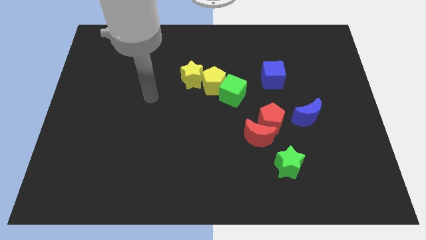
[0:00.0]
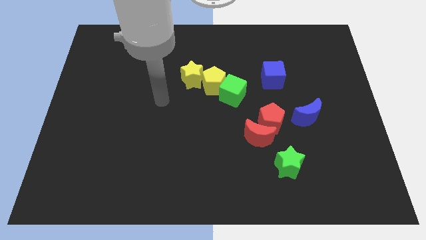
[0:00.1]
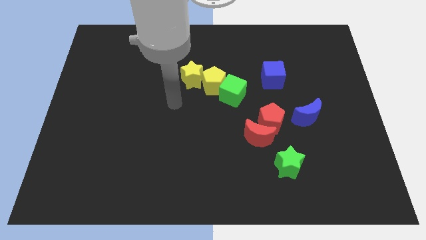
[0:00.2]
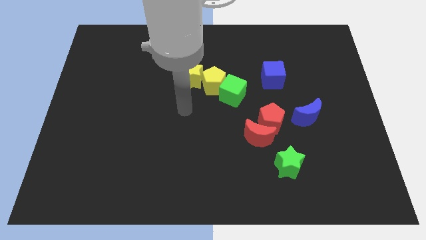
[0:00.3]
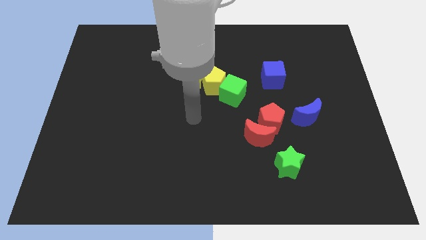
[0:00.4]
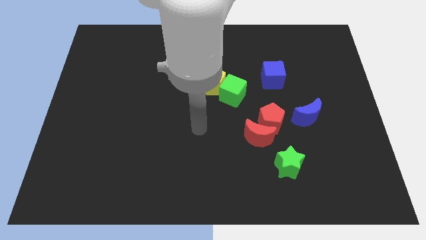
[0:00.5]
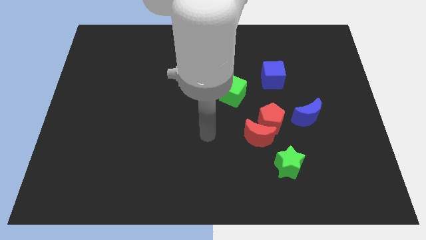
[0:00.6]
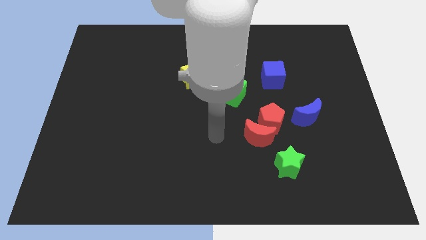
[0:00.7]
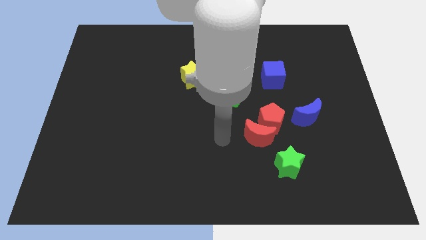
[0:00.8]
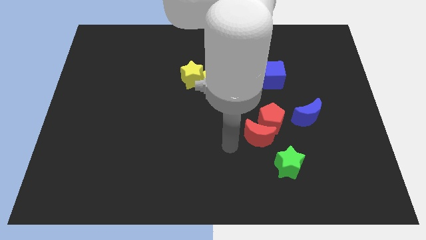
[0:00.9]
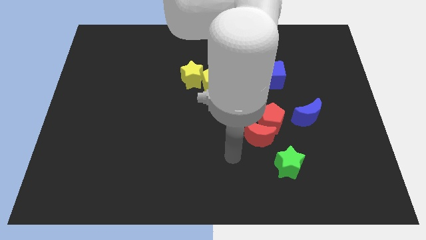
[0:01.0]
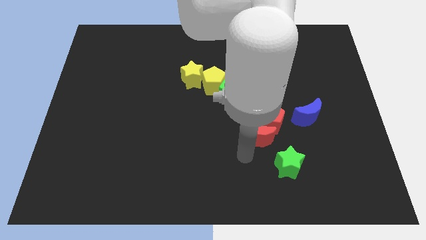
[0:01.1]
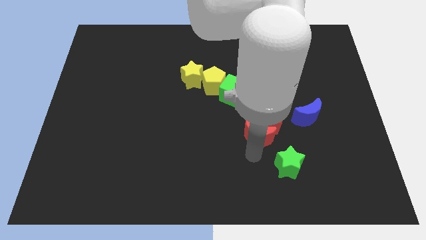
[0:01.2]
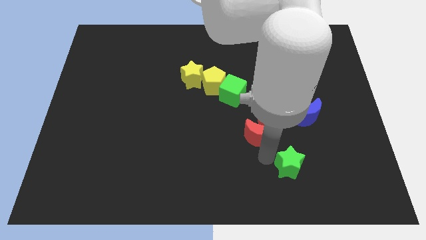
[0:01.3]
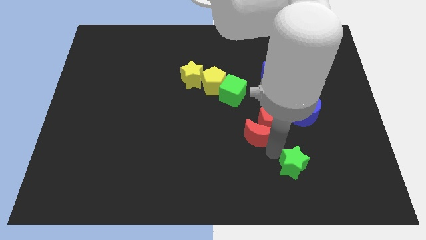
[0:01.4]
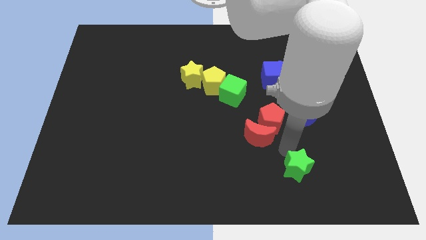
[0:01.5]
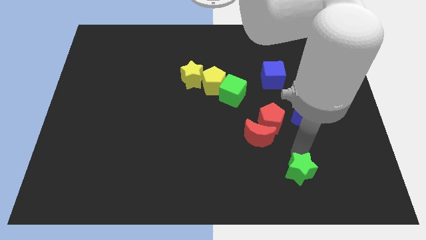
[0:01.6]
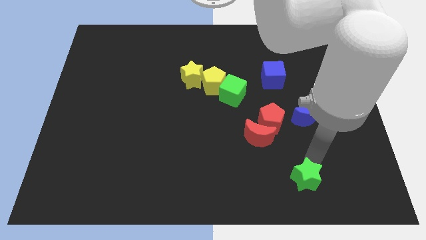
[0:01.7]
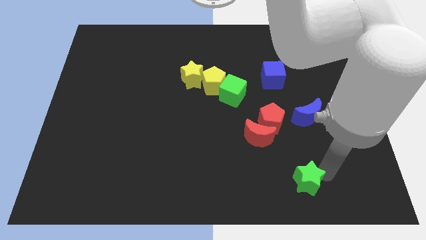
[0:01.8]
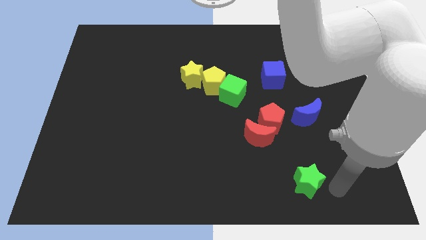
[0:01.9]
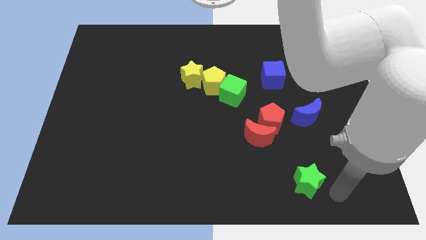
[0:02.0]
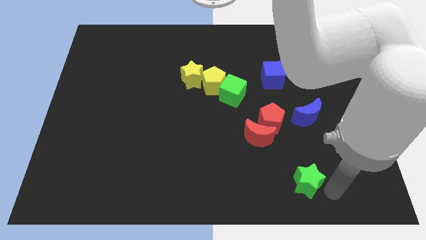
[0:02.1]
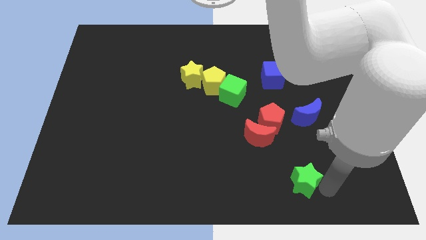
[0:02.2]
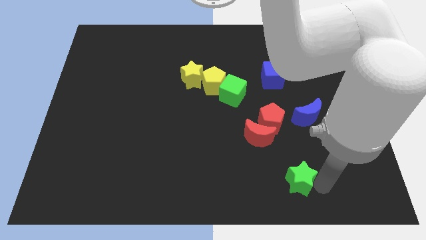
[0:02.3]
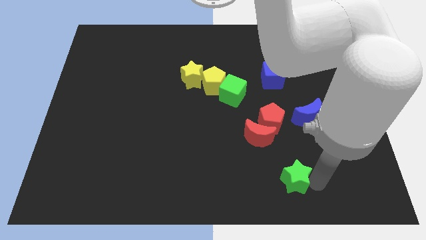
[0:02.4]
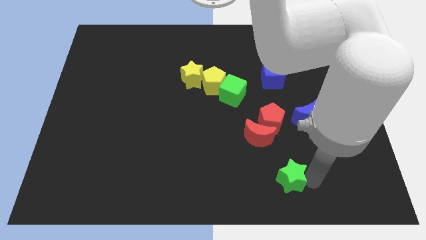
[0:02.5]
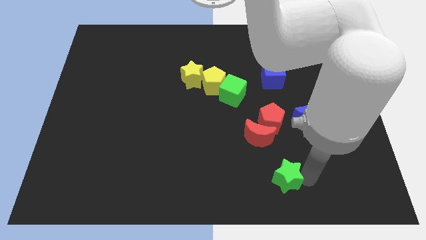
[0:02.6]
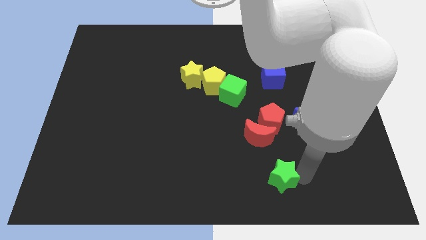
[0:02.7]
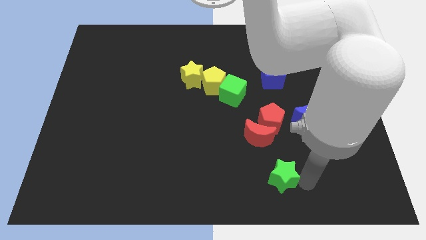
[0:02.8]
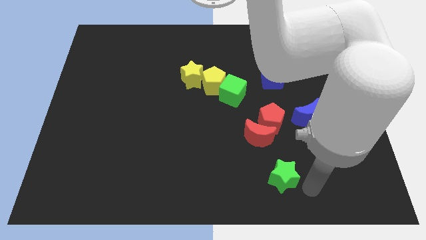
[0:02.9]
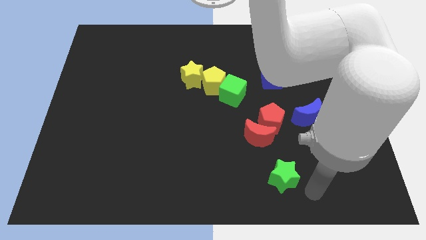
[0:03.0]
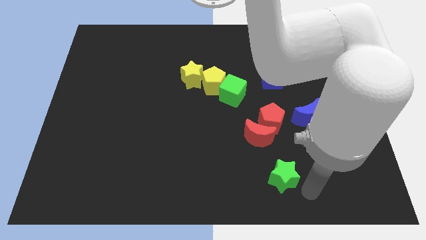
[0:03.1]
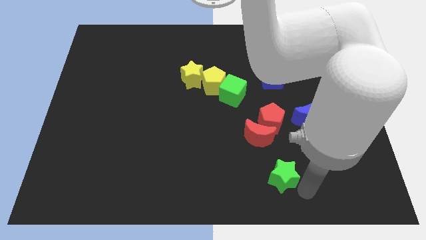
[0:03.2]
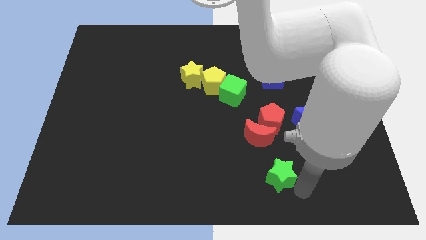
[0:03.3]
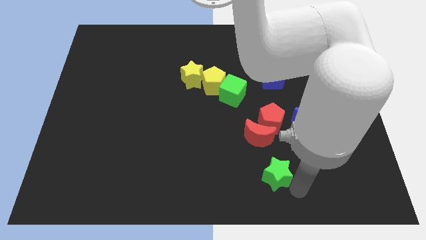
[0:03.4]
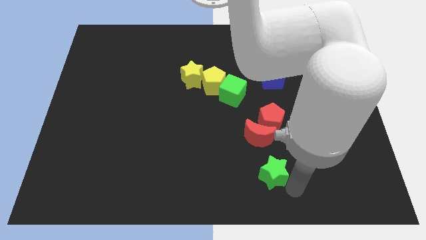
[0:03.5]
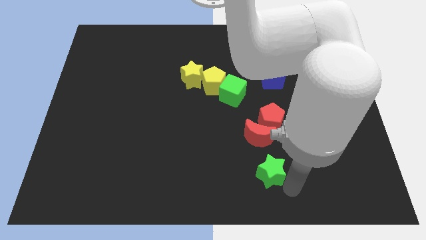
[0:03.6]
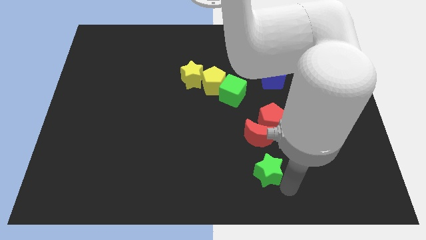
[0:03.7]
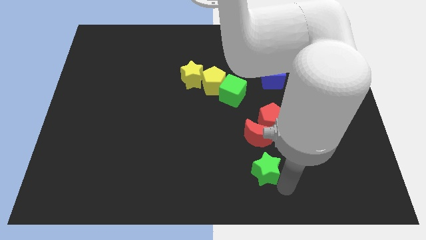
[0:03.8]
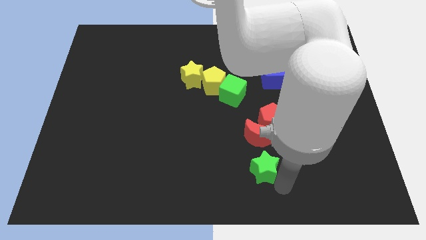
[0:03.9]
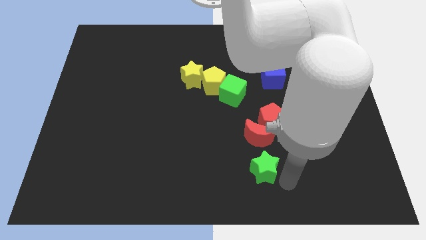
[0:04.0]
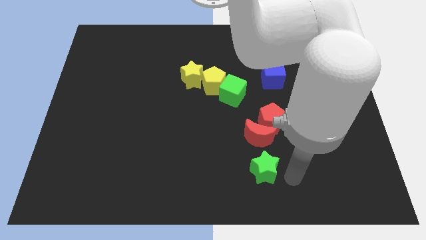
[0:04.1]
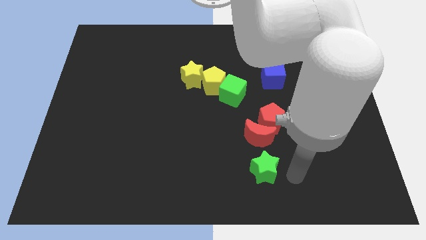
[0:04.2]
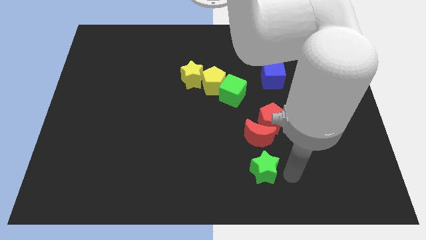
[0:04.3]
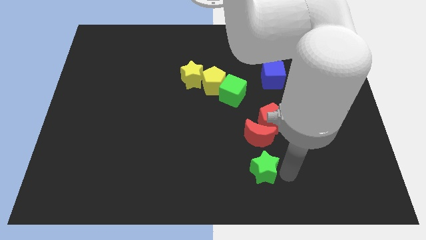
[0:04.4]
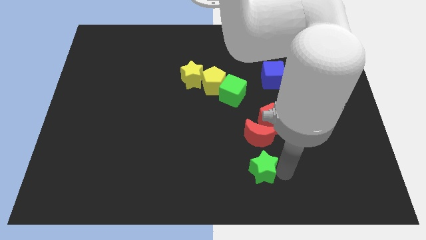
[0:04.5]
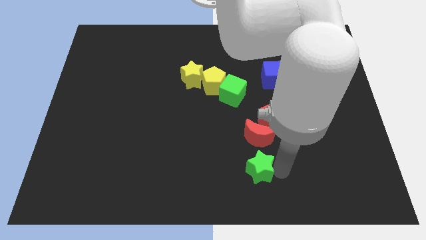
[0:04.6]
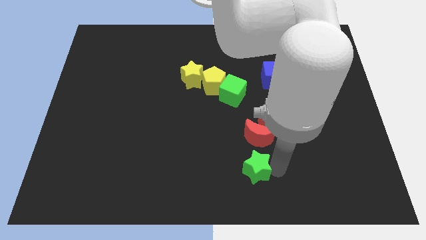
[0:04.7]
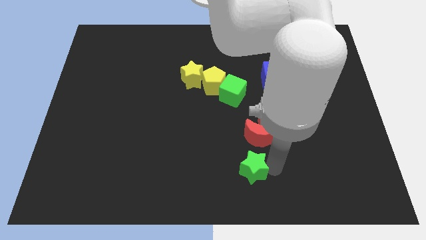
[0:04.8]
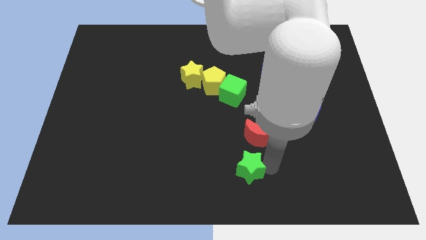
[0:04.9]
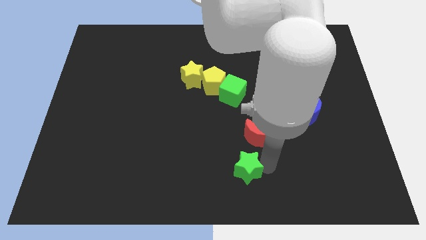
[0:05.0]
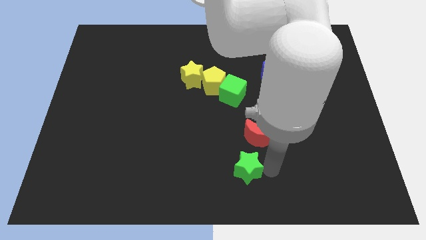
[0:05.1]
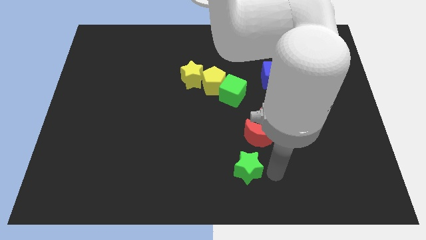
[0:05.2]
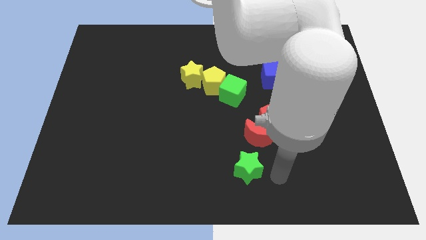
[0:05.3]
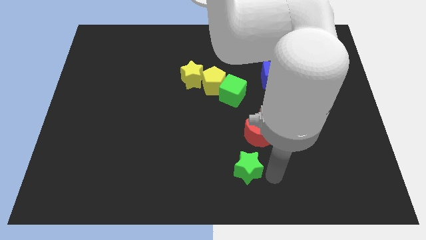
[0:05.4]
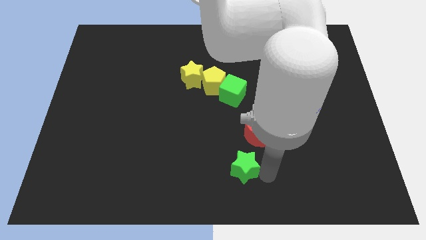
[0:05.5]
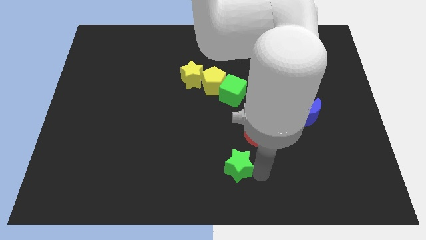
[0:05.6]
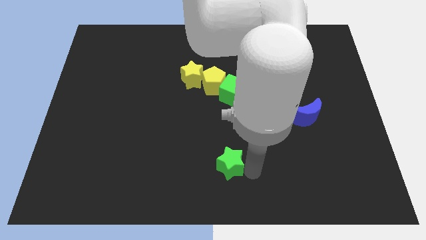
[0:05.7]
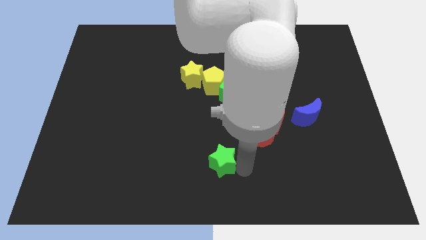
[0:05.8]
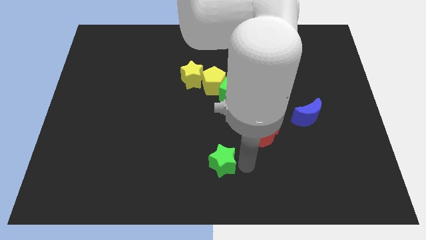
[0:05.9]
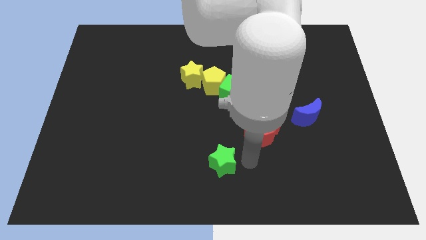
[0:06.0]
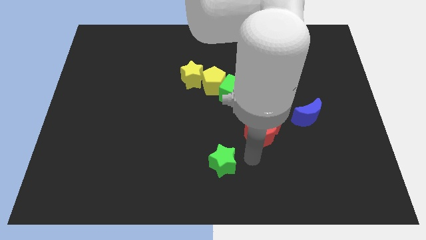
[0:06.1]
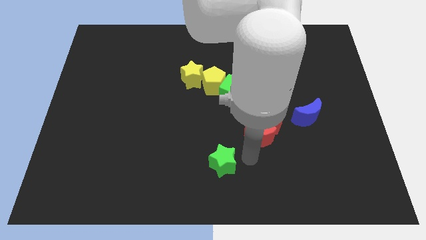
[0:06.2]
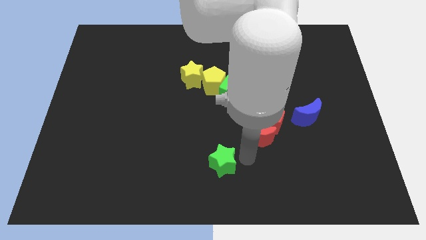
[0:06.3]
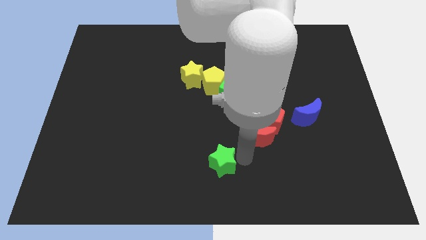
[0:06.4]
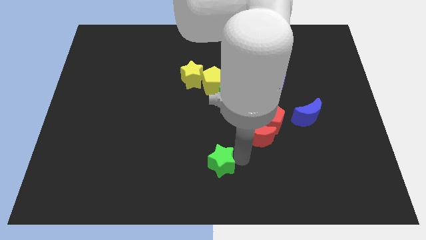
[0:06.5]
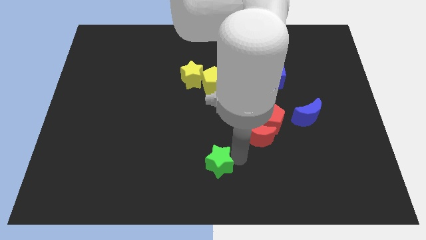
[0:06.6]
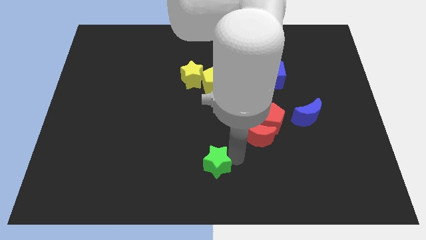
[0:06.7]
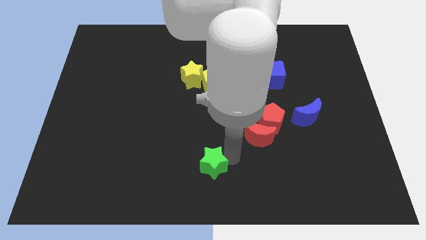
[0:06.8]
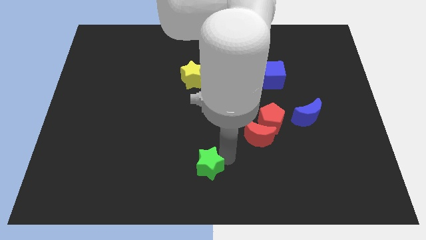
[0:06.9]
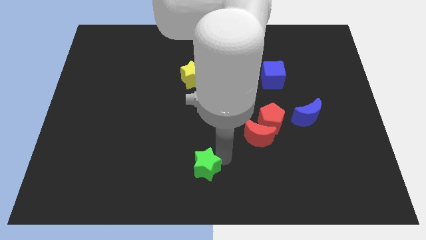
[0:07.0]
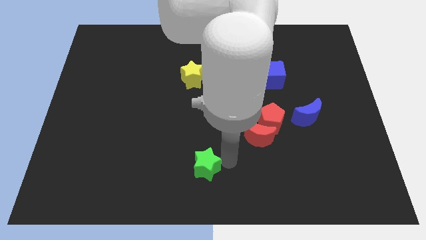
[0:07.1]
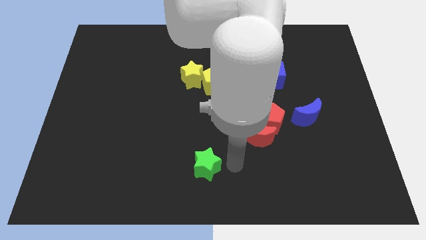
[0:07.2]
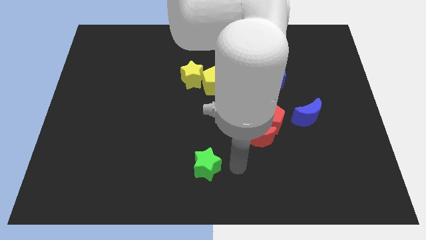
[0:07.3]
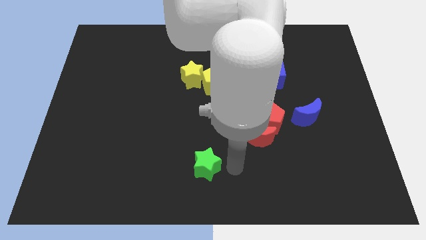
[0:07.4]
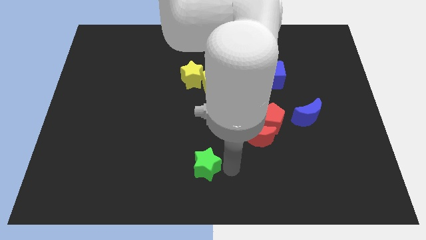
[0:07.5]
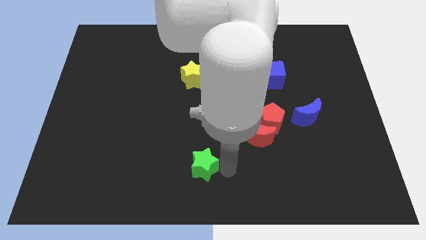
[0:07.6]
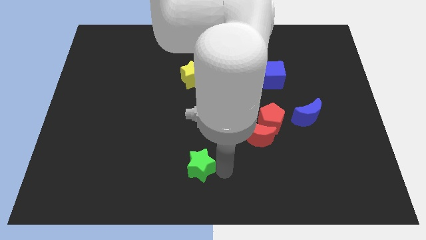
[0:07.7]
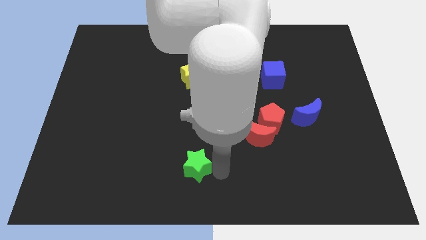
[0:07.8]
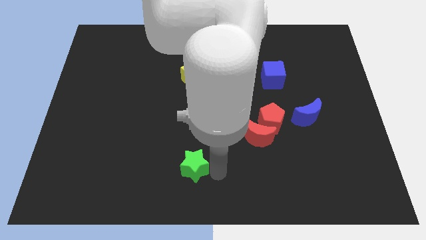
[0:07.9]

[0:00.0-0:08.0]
slide the green star left

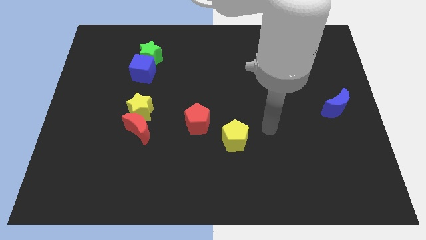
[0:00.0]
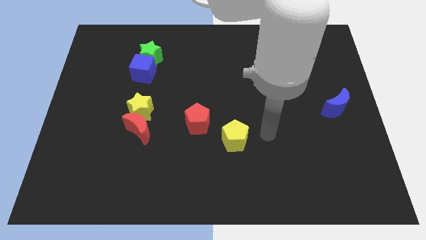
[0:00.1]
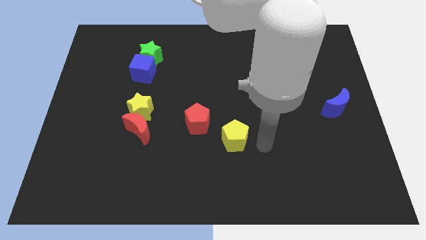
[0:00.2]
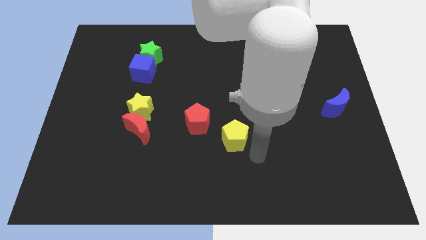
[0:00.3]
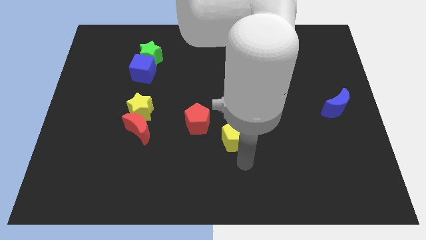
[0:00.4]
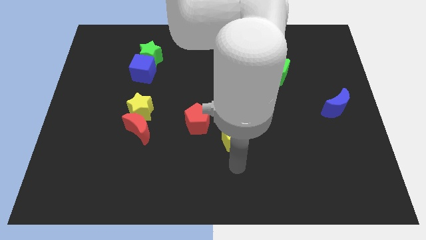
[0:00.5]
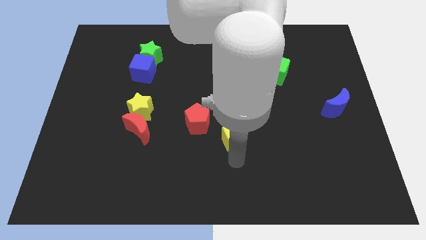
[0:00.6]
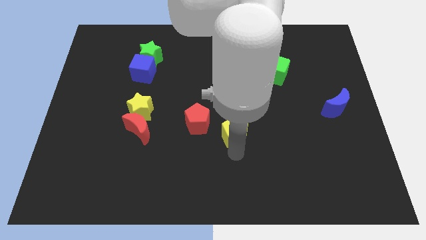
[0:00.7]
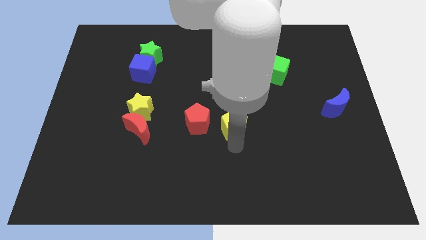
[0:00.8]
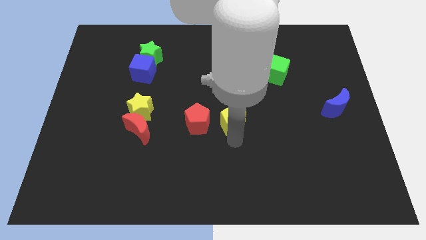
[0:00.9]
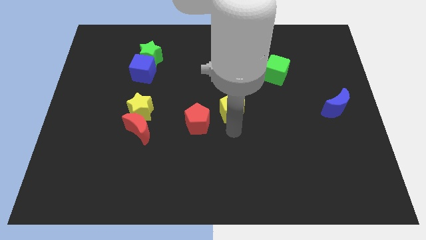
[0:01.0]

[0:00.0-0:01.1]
slightly move the yellow pentagon upwards
